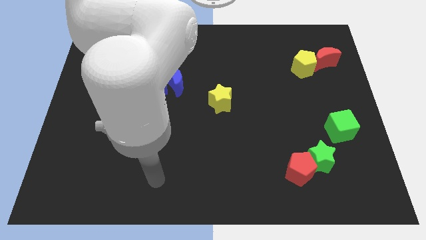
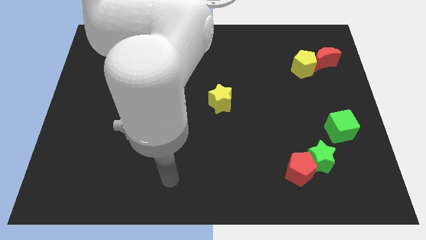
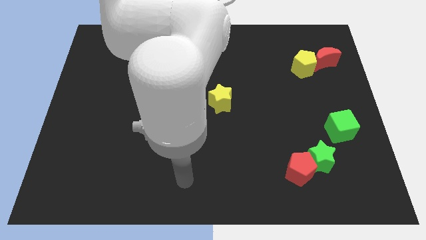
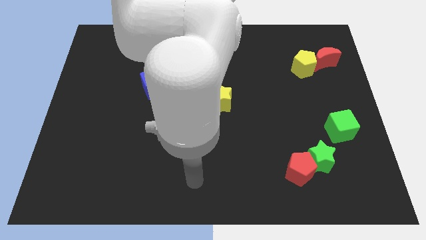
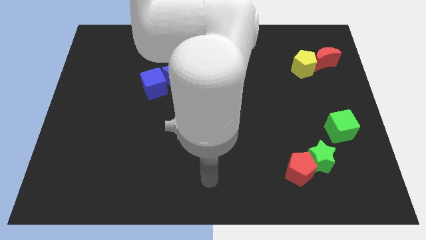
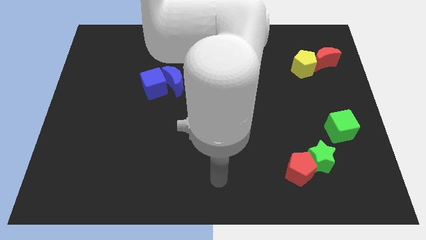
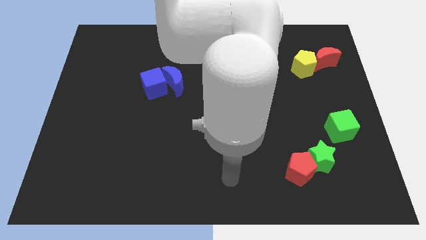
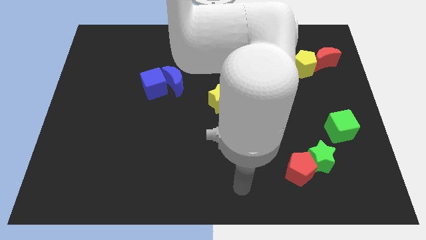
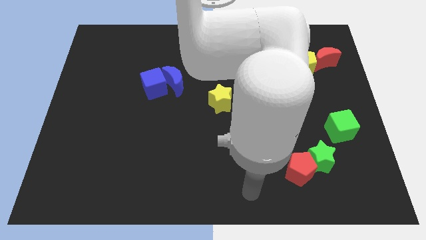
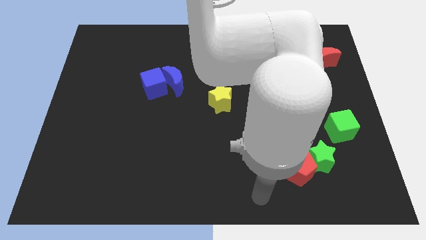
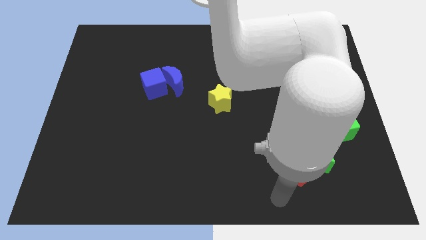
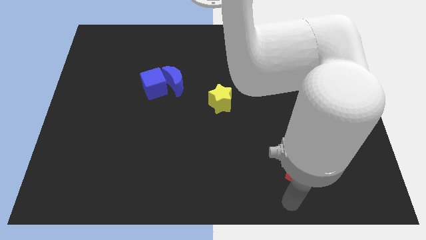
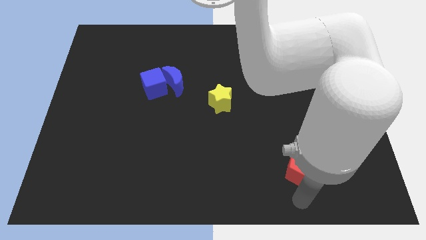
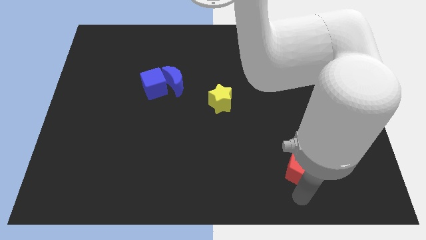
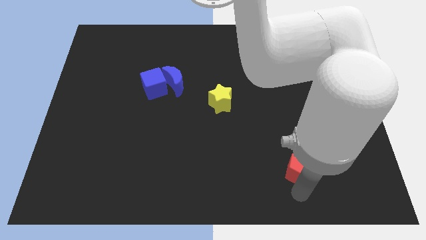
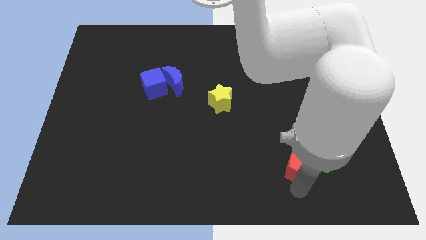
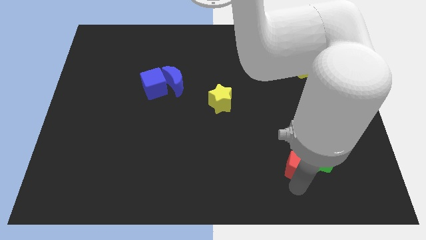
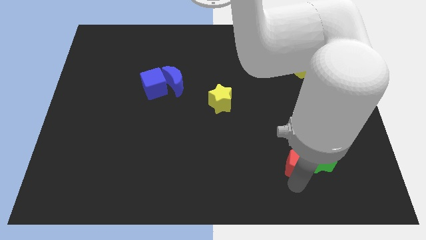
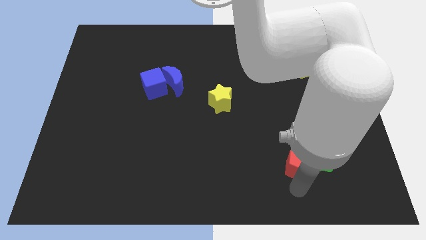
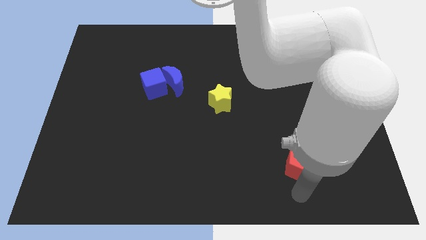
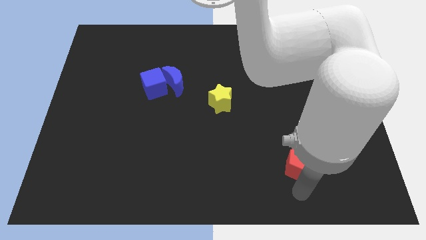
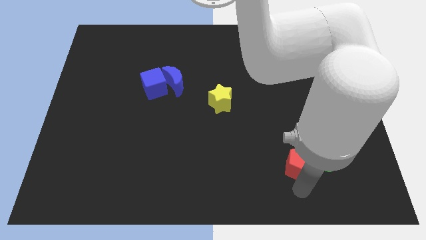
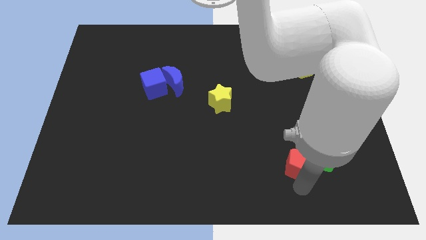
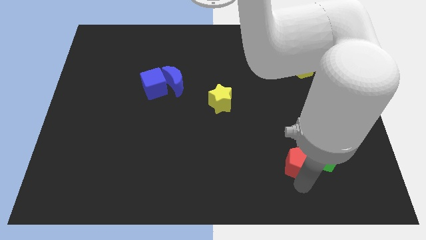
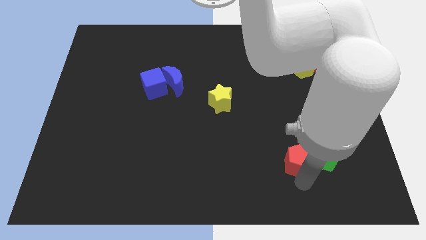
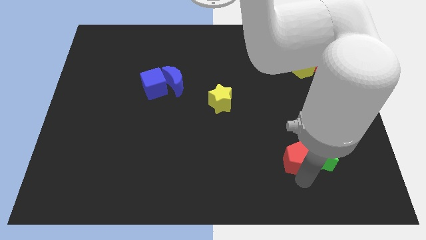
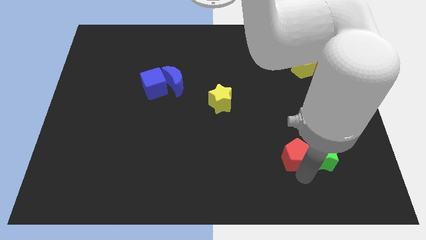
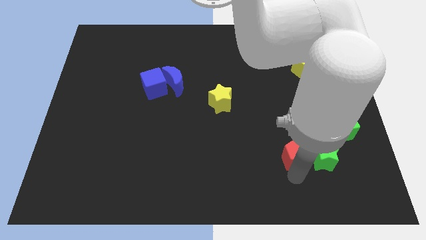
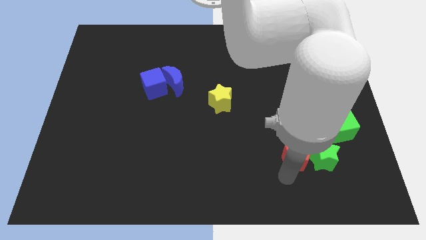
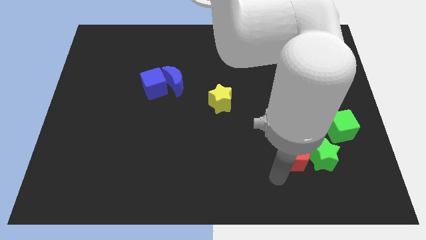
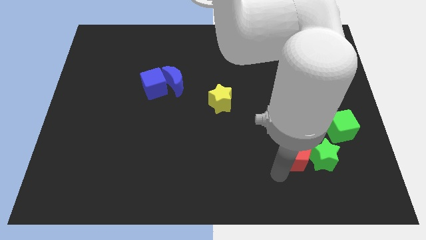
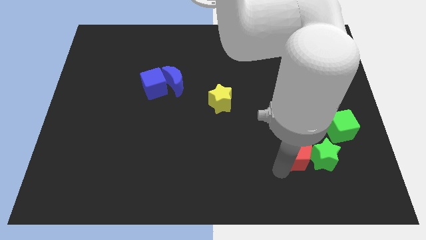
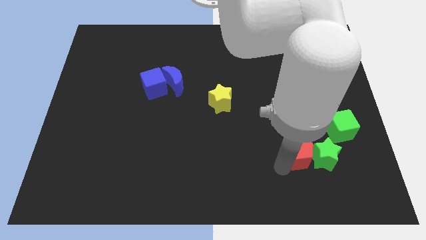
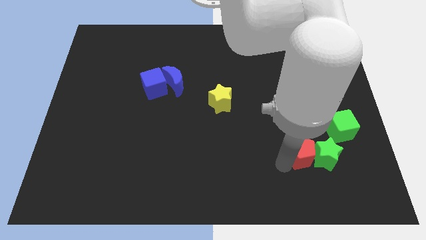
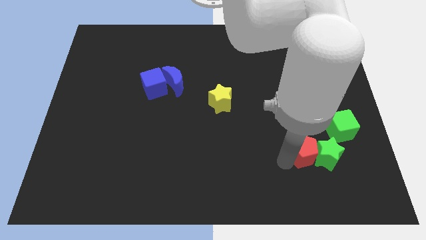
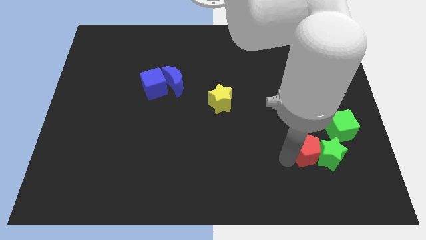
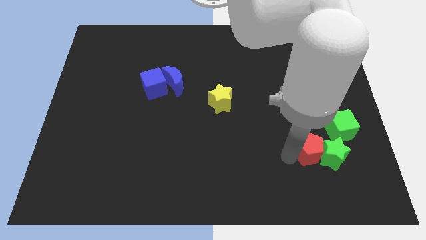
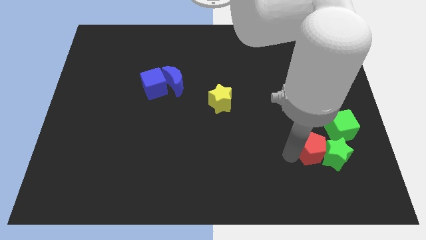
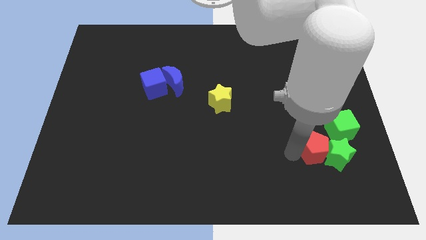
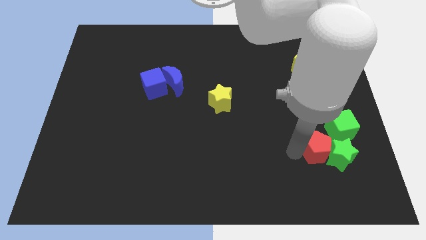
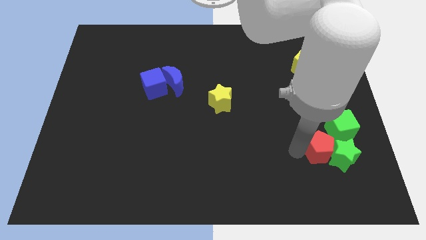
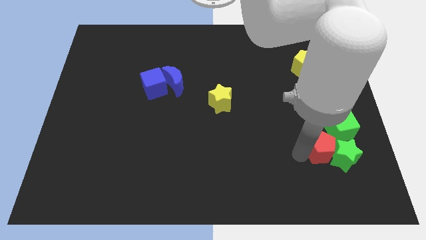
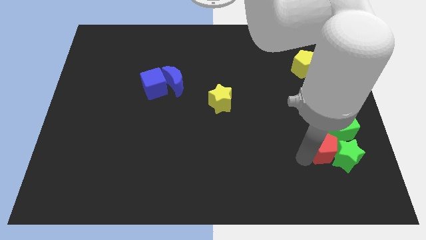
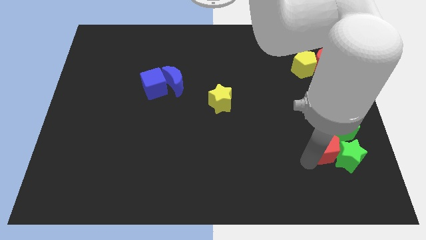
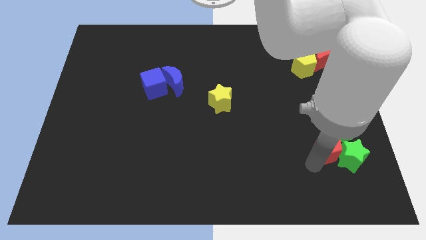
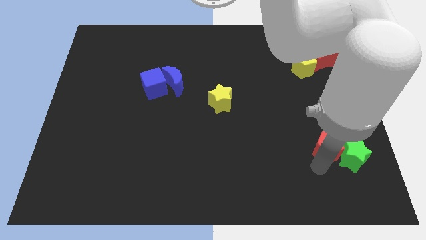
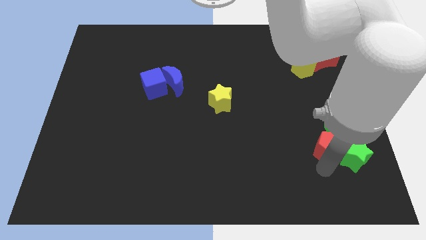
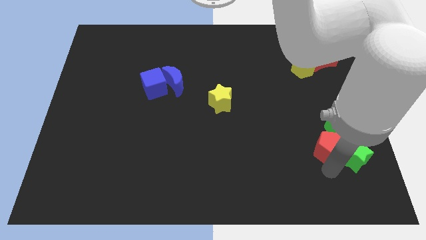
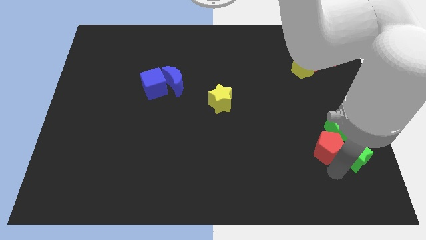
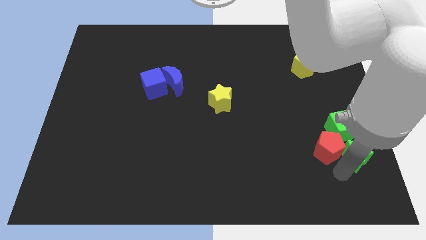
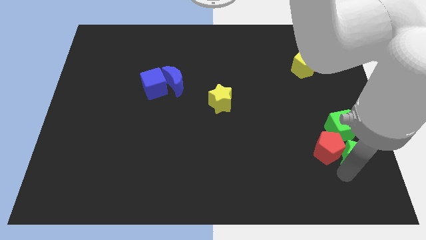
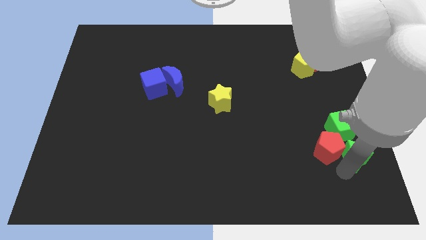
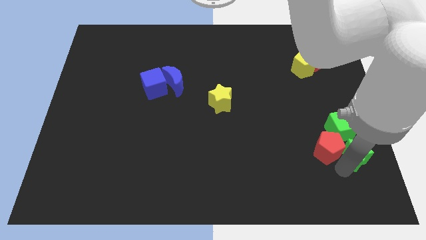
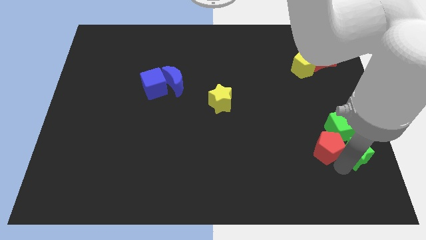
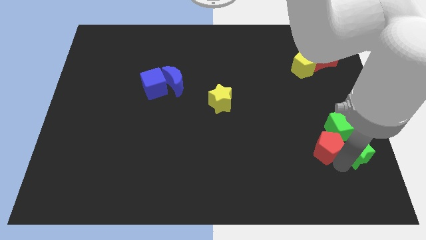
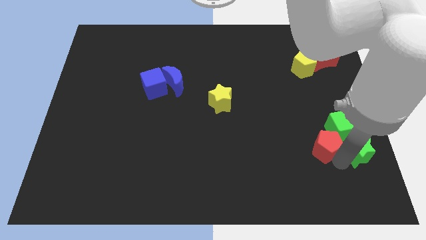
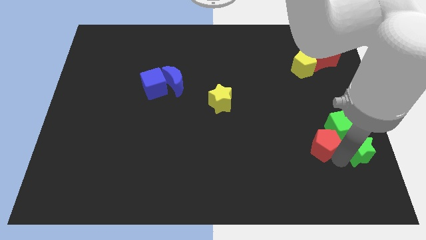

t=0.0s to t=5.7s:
put the red pentagon towards the green cube

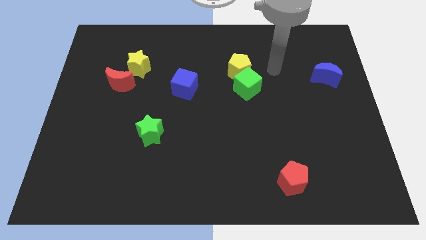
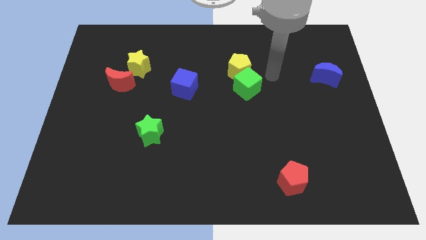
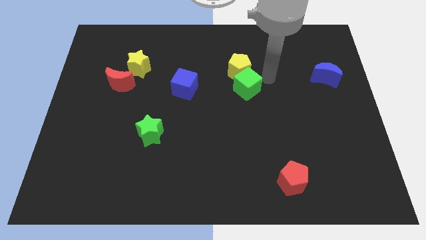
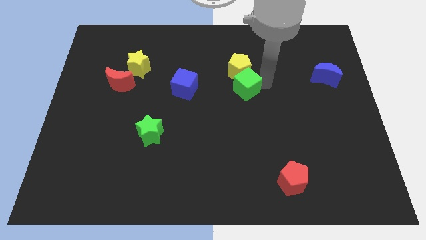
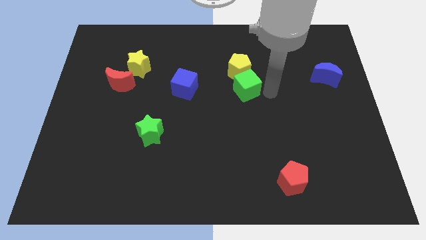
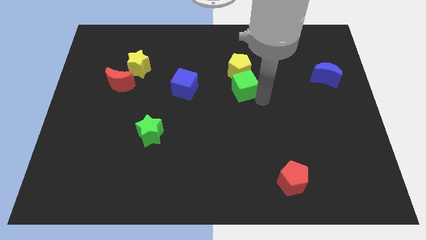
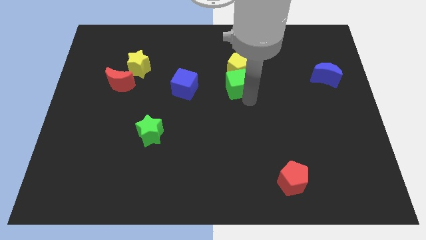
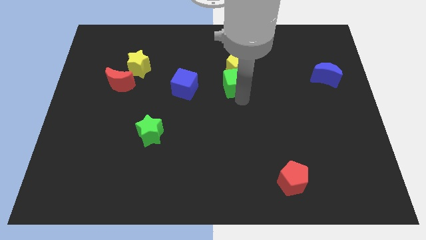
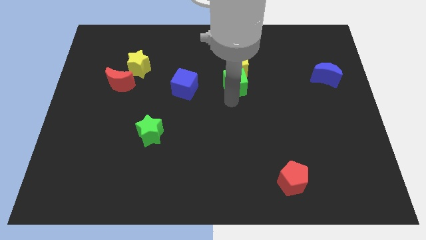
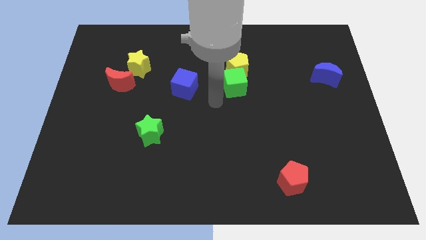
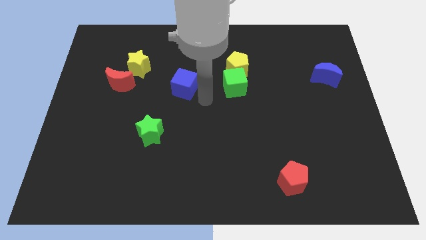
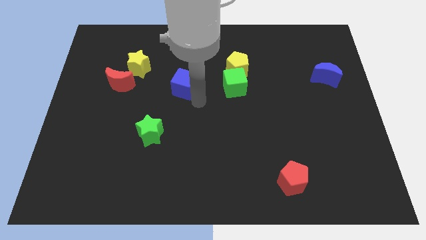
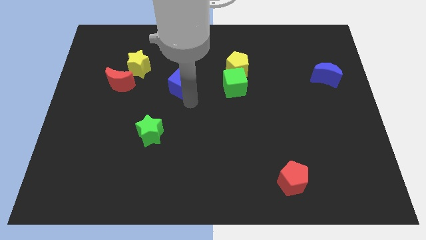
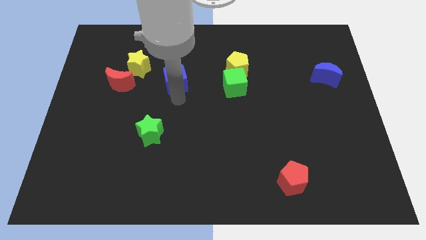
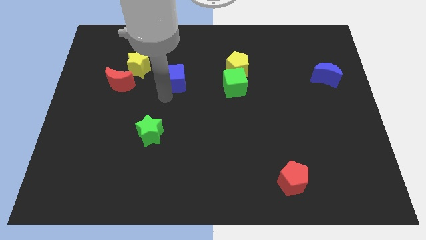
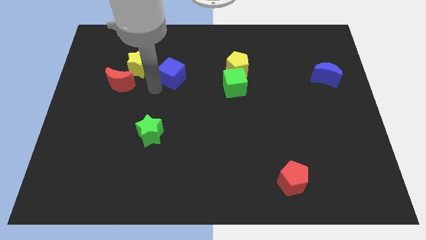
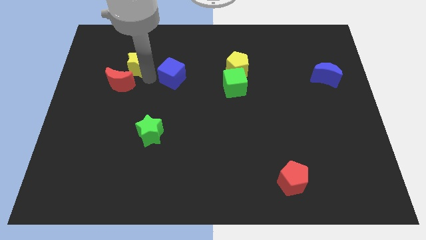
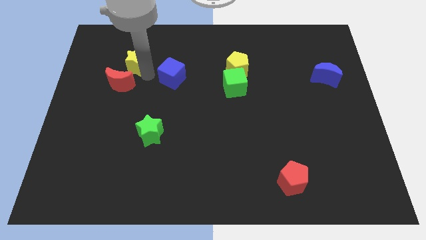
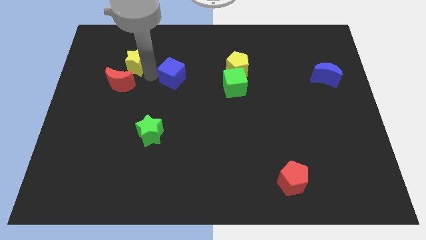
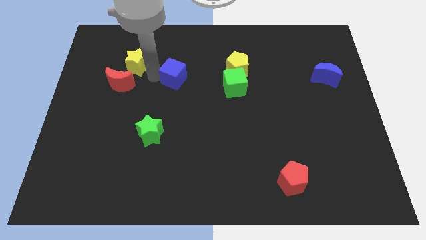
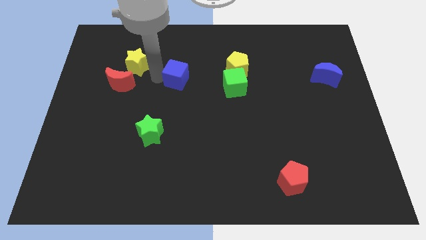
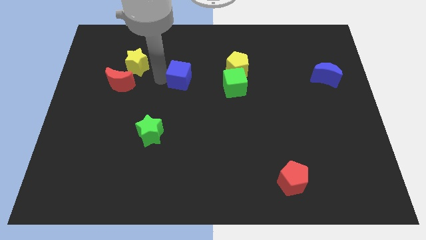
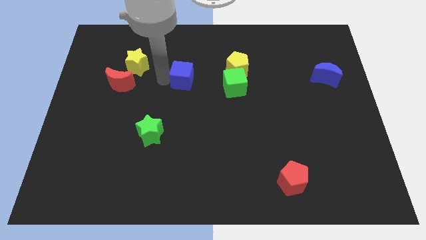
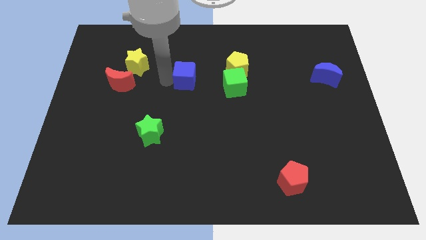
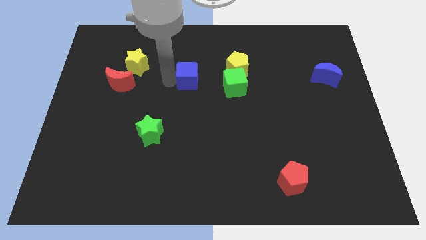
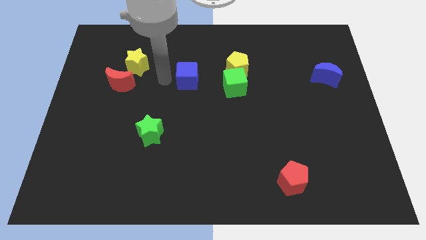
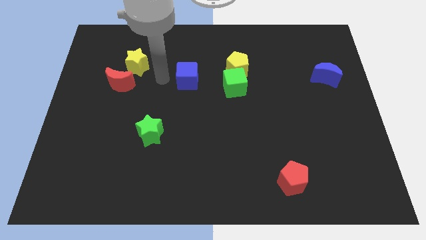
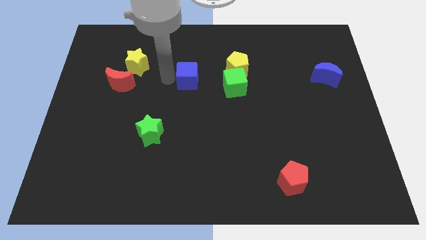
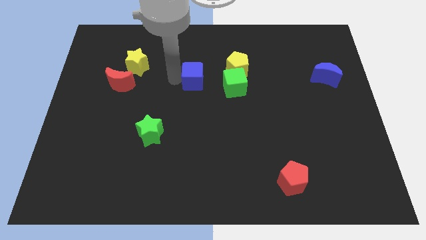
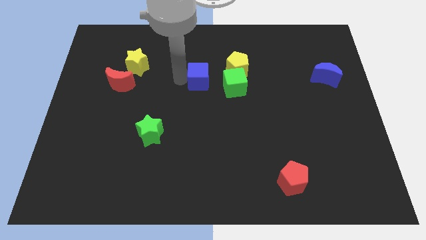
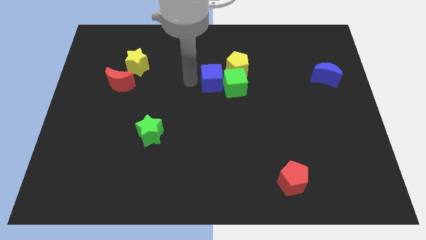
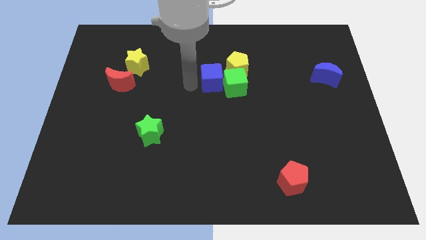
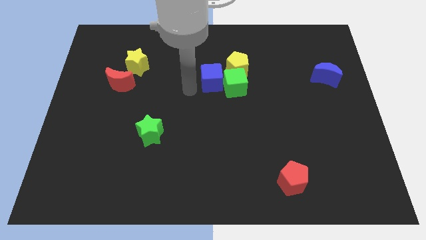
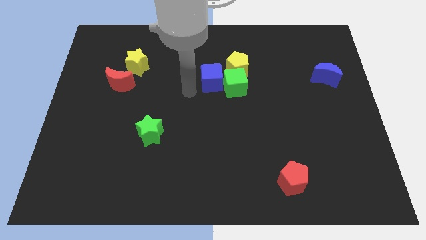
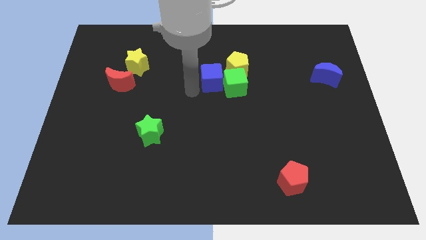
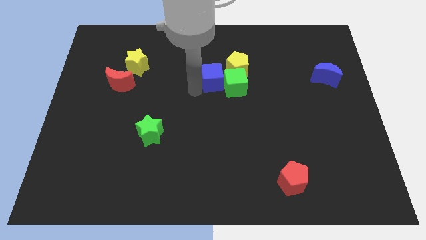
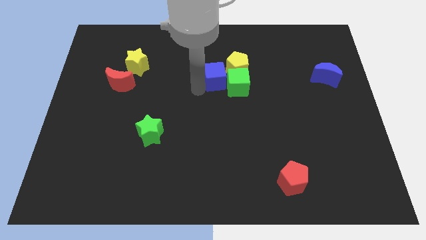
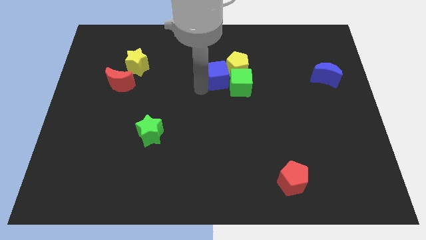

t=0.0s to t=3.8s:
slide the blue cube close to the yellow pentagon
